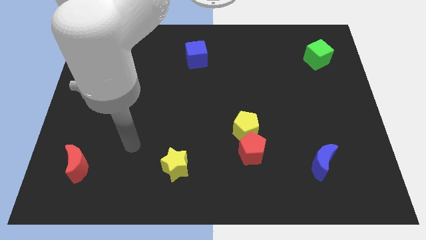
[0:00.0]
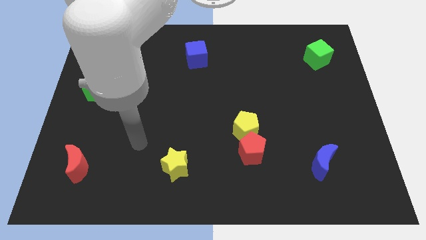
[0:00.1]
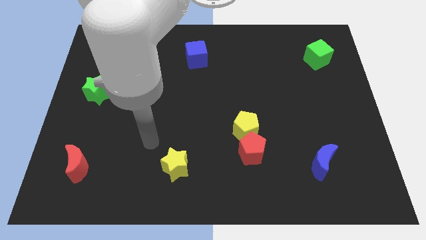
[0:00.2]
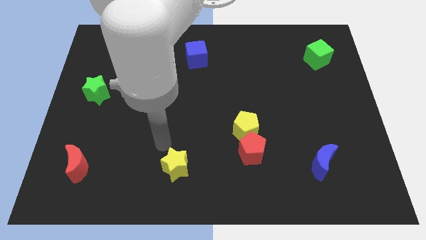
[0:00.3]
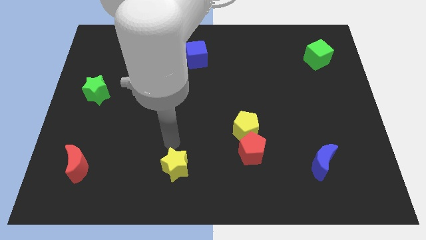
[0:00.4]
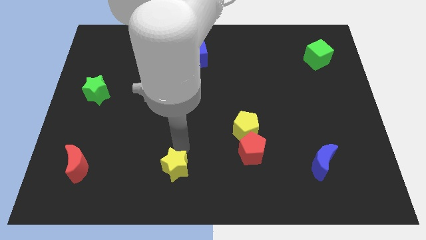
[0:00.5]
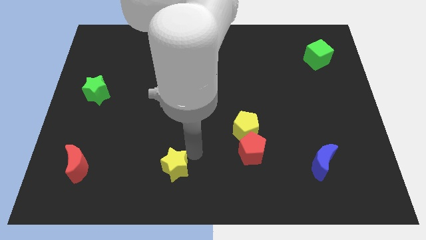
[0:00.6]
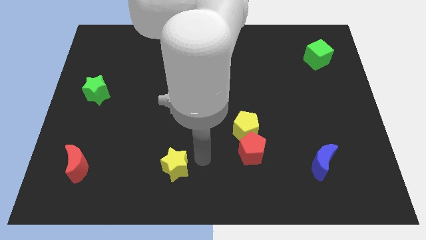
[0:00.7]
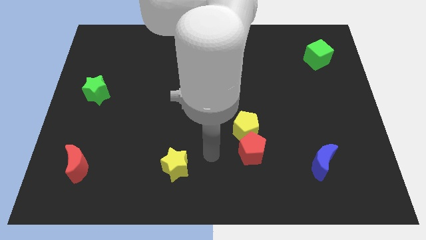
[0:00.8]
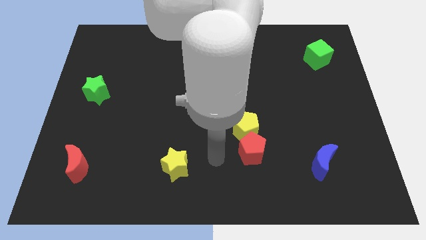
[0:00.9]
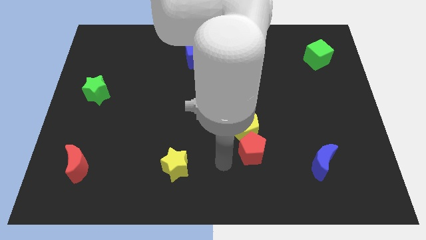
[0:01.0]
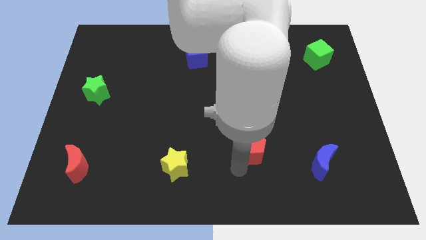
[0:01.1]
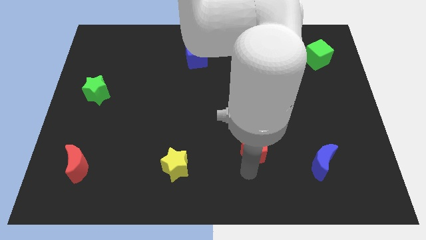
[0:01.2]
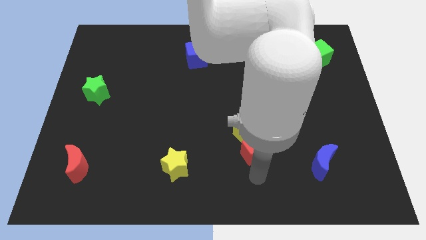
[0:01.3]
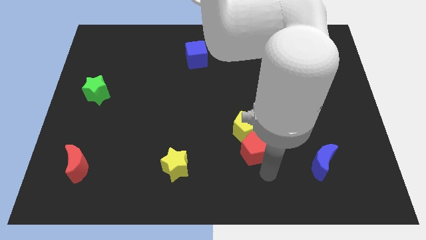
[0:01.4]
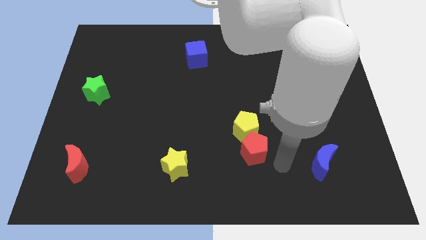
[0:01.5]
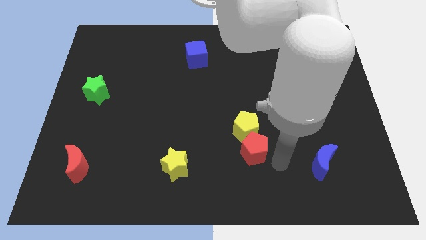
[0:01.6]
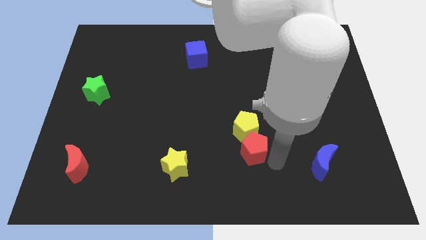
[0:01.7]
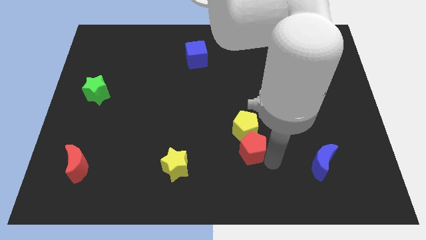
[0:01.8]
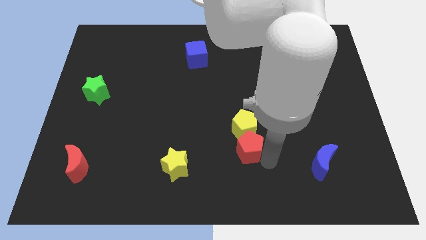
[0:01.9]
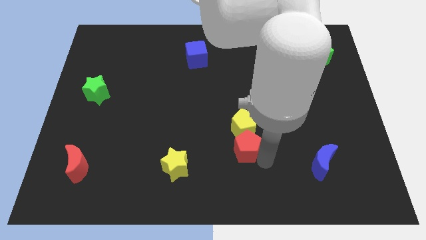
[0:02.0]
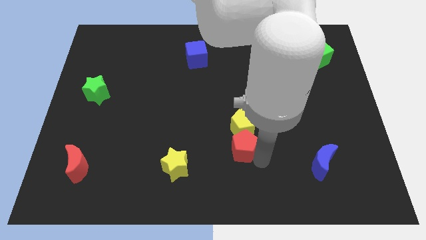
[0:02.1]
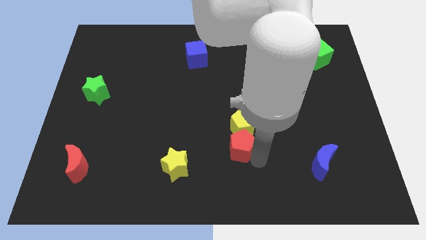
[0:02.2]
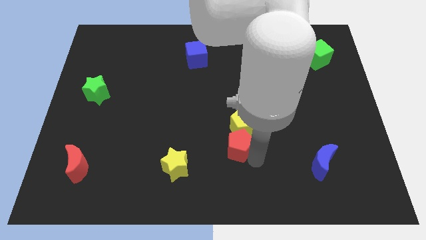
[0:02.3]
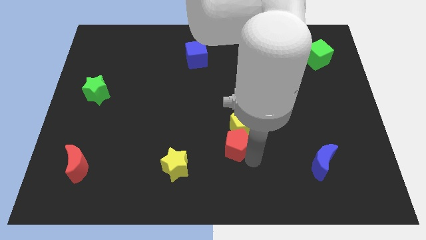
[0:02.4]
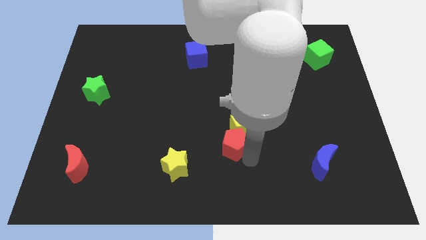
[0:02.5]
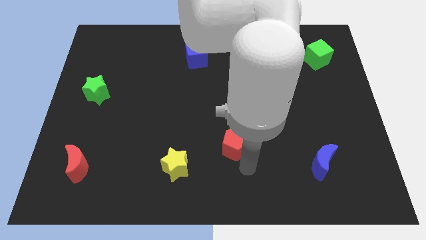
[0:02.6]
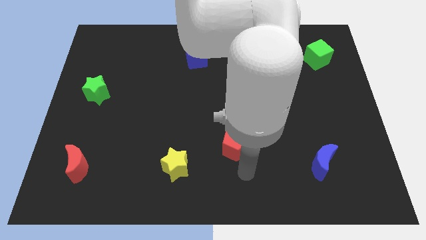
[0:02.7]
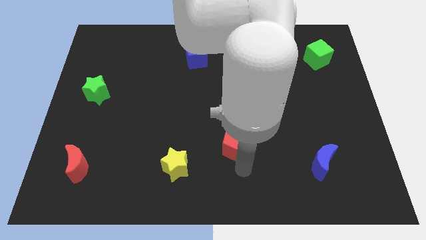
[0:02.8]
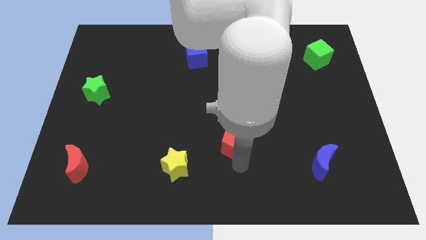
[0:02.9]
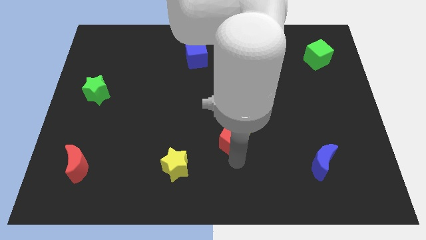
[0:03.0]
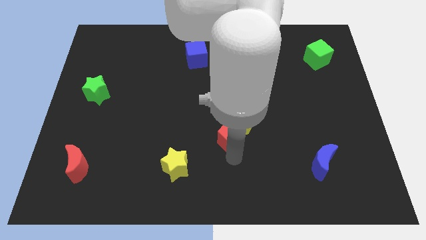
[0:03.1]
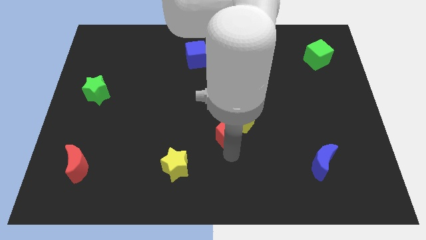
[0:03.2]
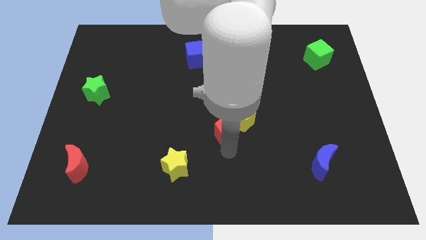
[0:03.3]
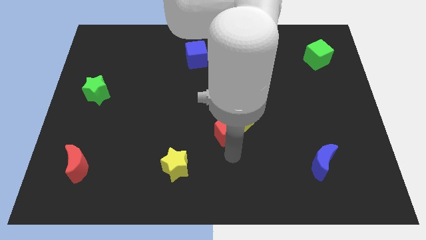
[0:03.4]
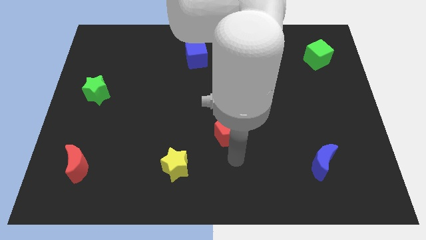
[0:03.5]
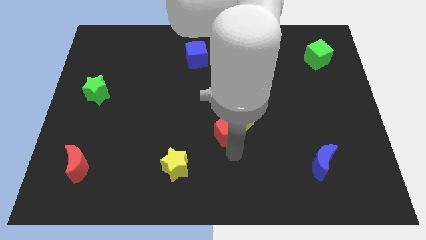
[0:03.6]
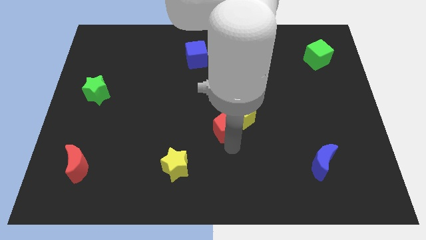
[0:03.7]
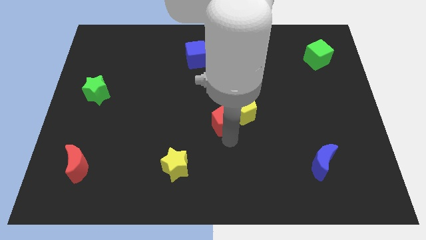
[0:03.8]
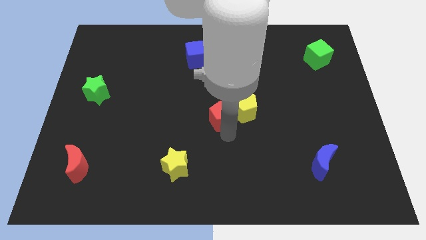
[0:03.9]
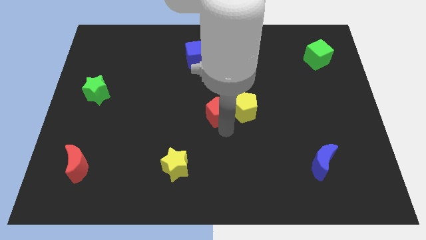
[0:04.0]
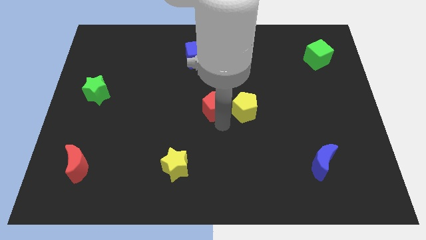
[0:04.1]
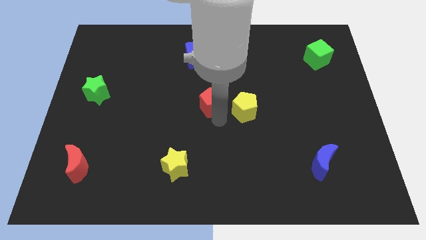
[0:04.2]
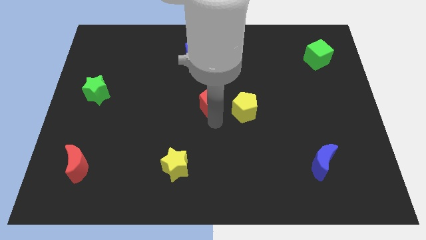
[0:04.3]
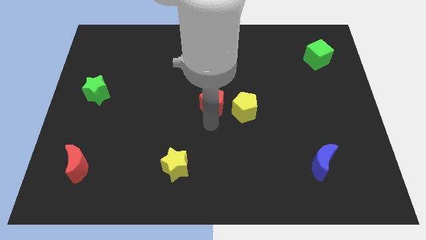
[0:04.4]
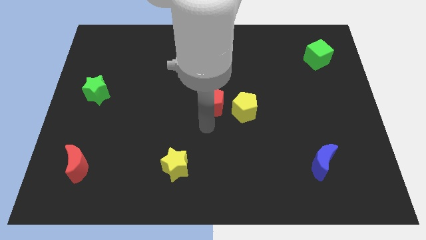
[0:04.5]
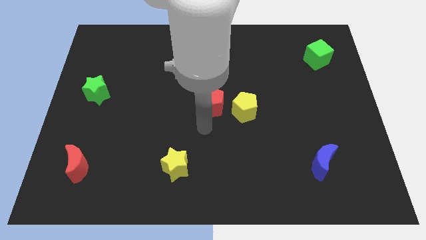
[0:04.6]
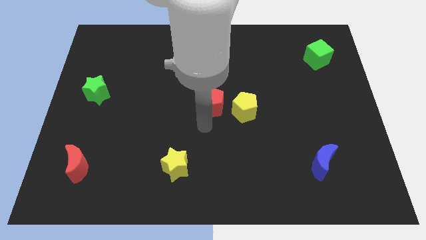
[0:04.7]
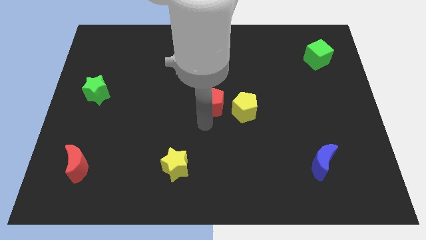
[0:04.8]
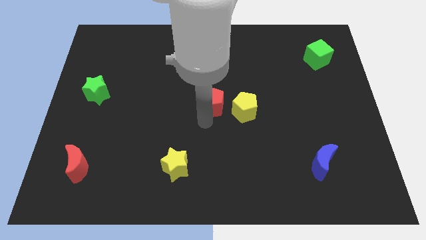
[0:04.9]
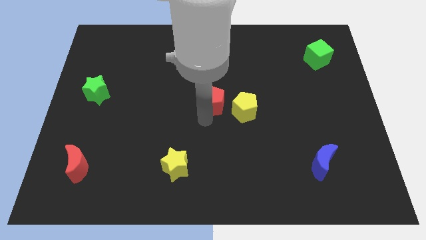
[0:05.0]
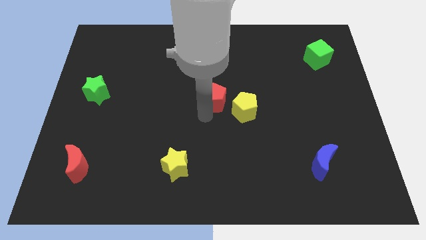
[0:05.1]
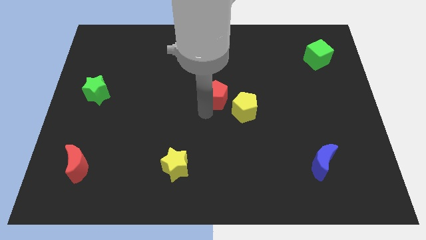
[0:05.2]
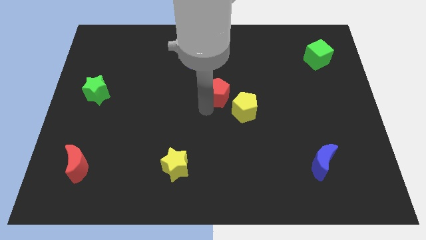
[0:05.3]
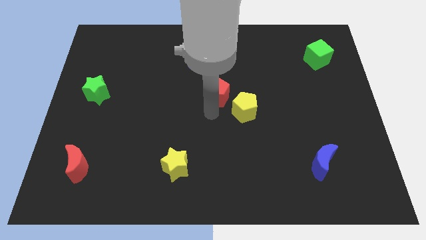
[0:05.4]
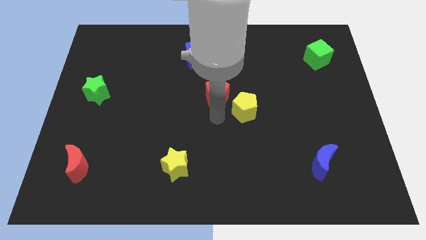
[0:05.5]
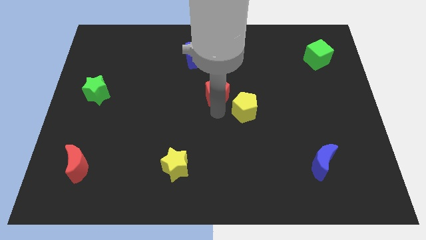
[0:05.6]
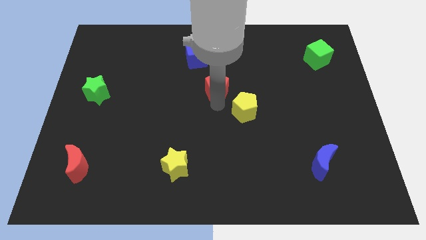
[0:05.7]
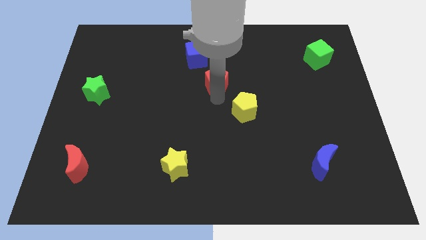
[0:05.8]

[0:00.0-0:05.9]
push the red pentagon to the bottom right side of the blue cube

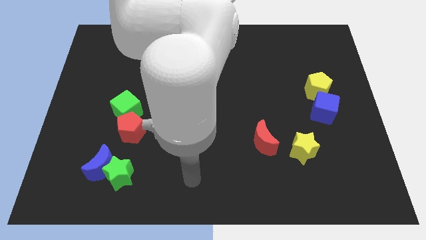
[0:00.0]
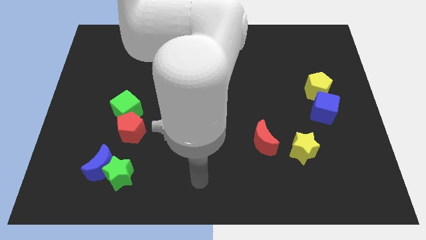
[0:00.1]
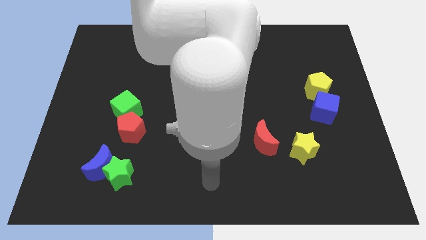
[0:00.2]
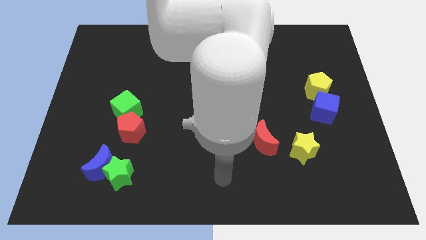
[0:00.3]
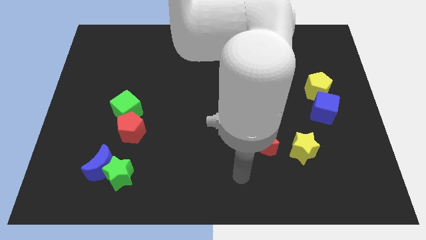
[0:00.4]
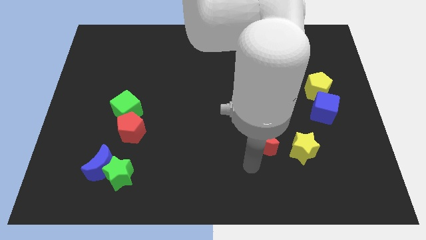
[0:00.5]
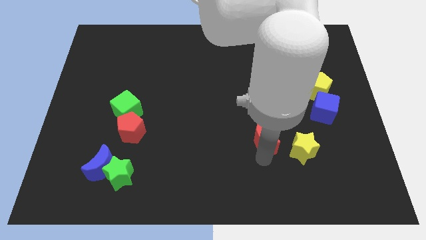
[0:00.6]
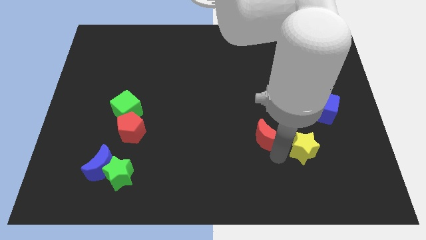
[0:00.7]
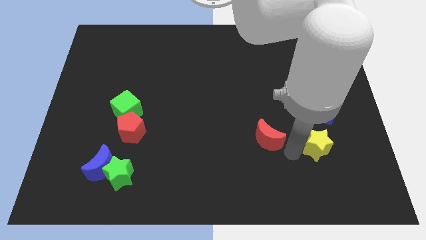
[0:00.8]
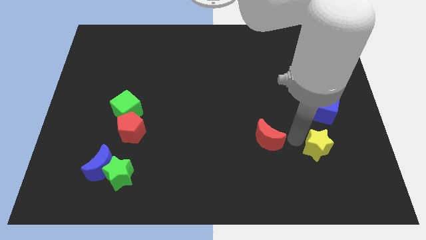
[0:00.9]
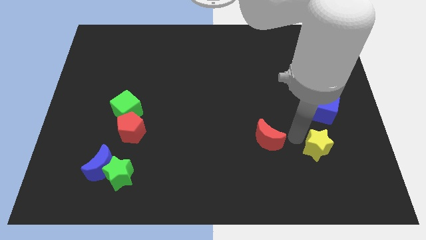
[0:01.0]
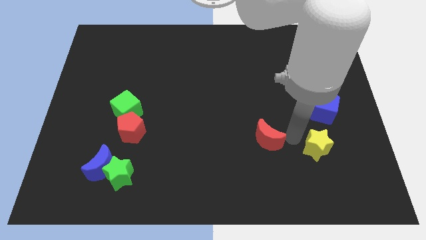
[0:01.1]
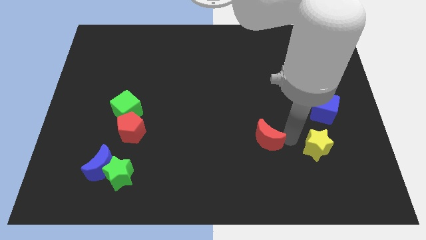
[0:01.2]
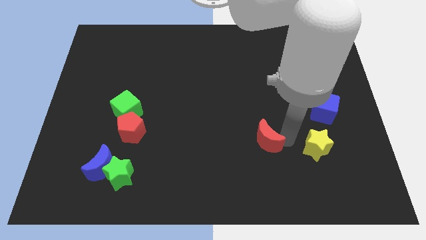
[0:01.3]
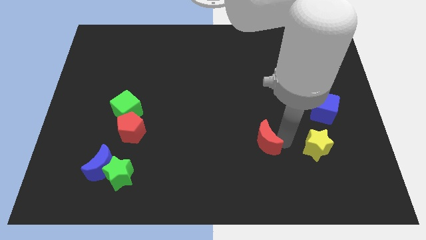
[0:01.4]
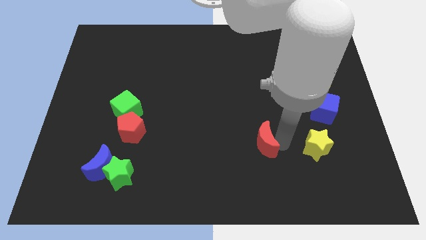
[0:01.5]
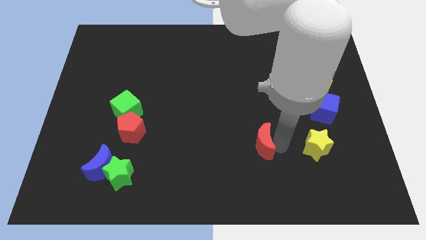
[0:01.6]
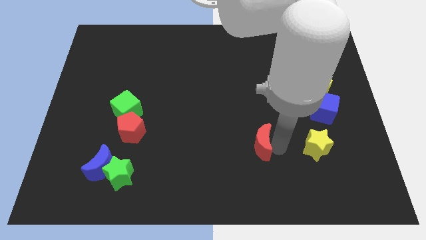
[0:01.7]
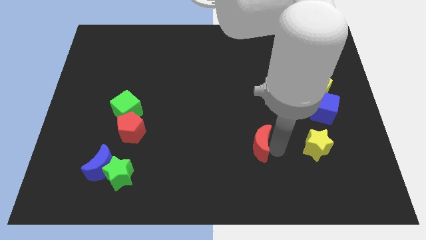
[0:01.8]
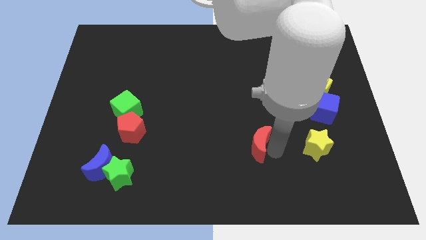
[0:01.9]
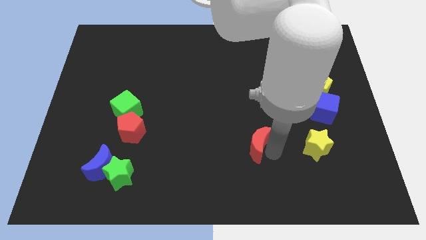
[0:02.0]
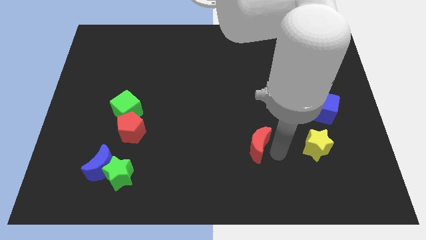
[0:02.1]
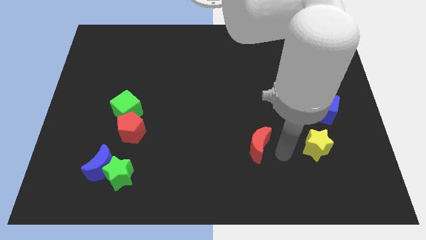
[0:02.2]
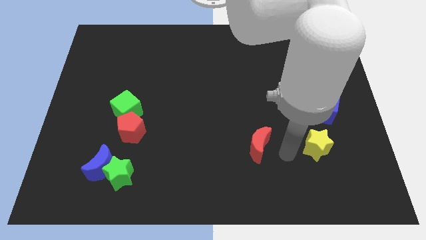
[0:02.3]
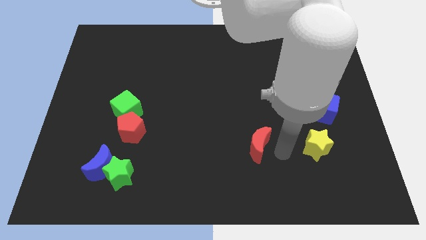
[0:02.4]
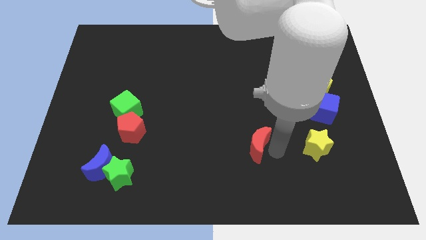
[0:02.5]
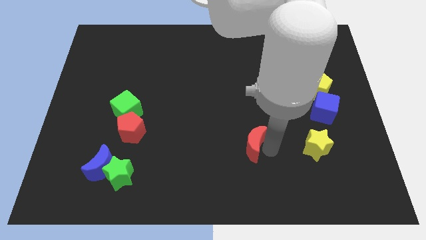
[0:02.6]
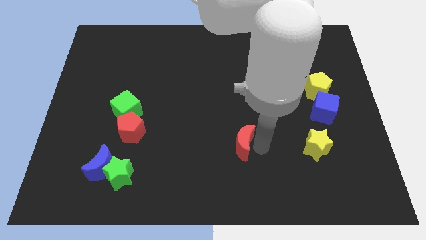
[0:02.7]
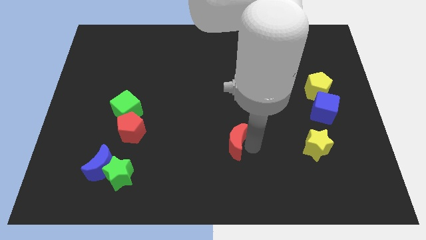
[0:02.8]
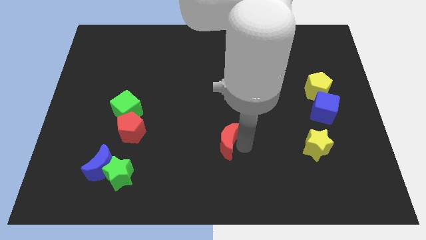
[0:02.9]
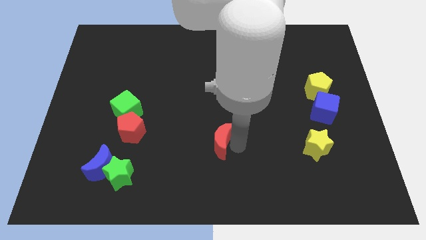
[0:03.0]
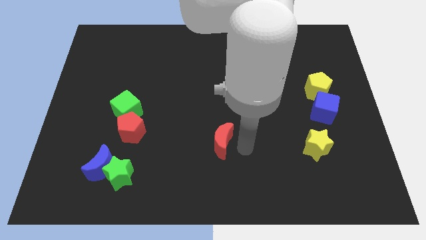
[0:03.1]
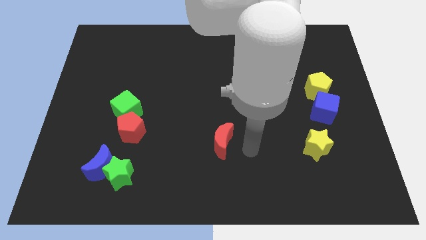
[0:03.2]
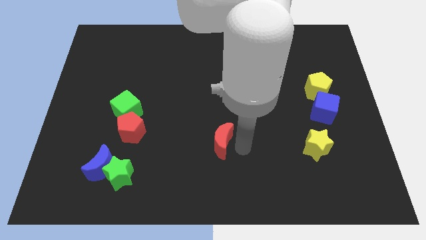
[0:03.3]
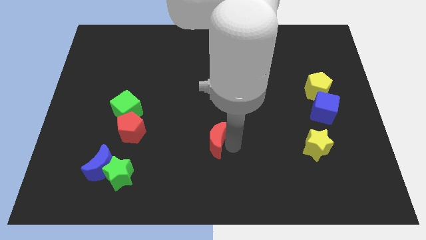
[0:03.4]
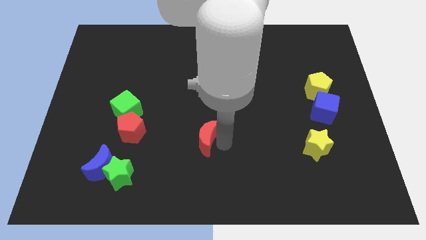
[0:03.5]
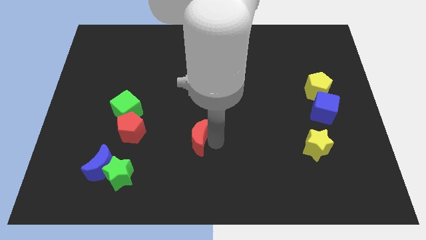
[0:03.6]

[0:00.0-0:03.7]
slide the red moon to the right of the red pentagon
